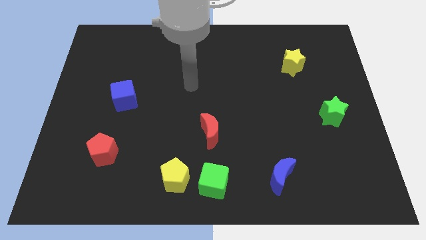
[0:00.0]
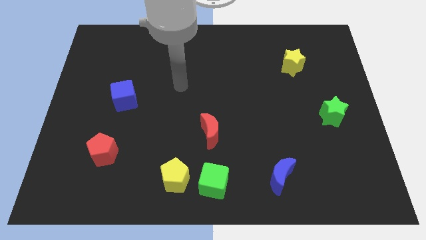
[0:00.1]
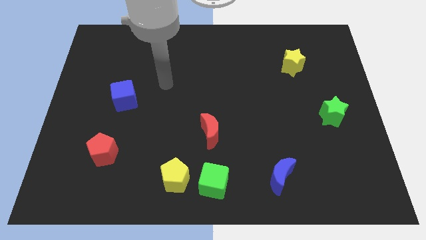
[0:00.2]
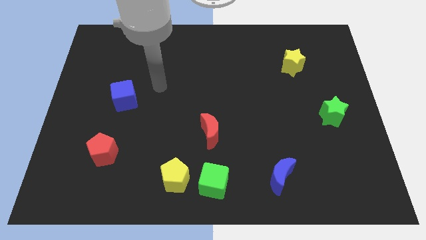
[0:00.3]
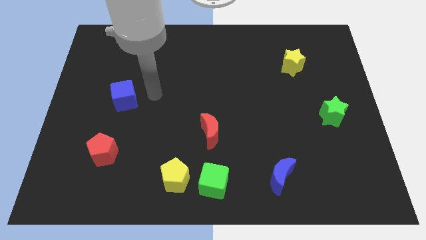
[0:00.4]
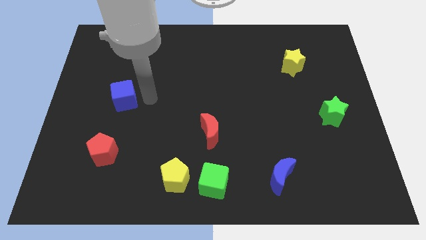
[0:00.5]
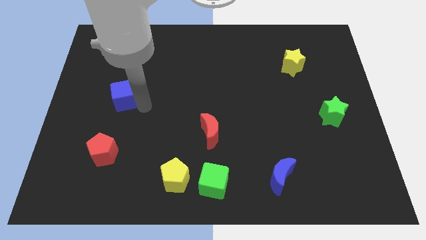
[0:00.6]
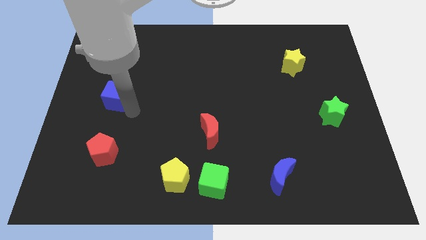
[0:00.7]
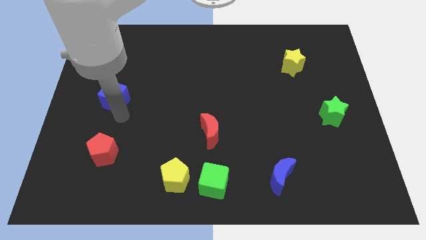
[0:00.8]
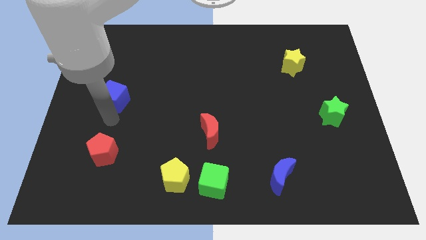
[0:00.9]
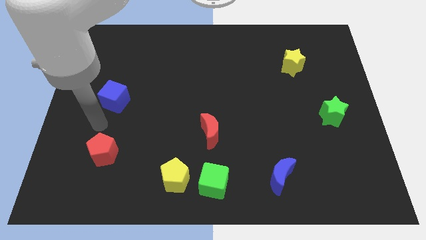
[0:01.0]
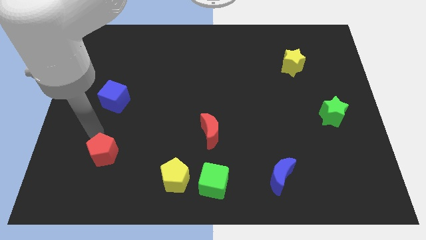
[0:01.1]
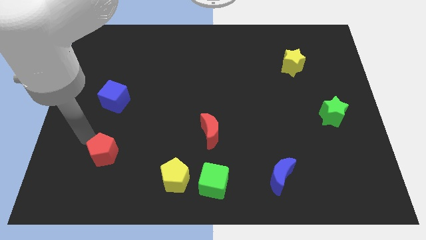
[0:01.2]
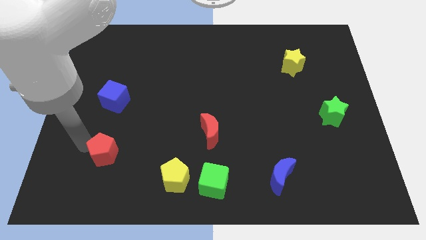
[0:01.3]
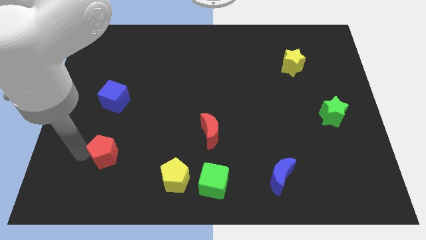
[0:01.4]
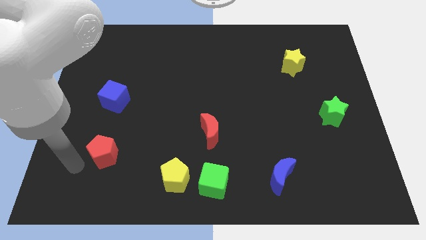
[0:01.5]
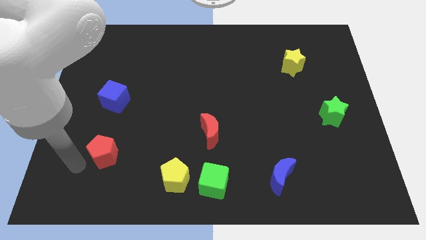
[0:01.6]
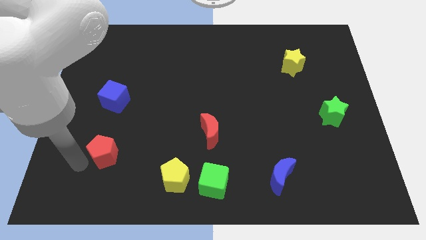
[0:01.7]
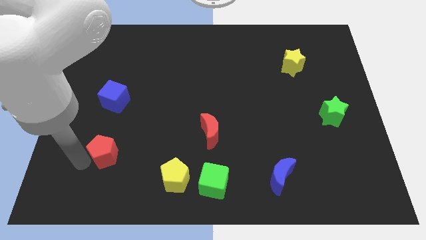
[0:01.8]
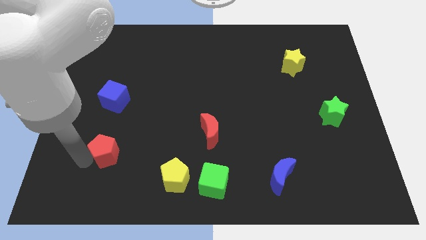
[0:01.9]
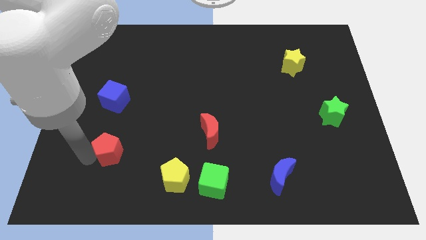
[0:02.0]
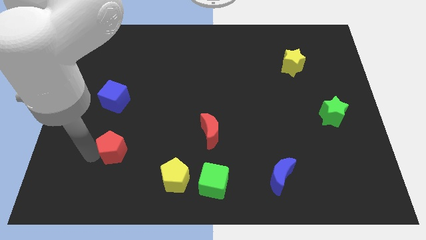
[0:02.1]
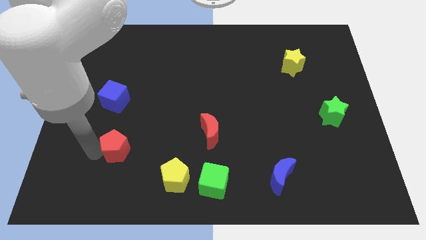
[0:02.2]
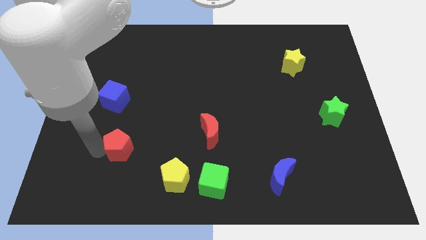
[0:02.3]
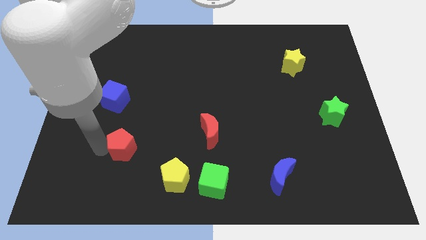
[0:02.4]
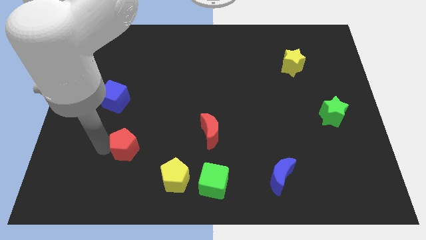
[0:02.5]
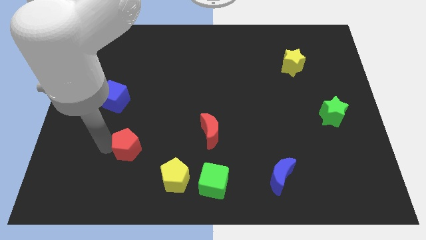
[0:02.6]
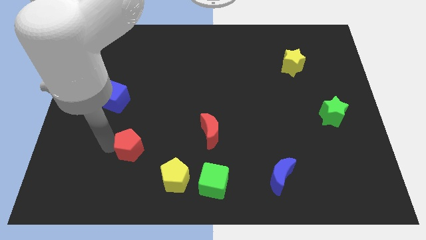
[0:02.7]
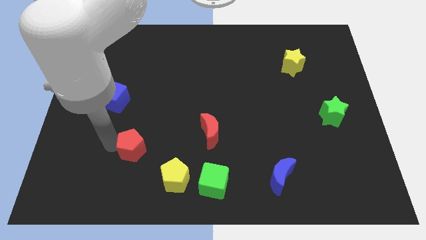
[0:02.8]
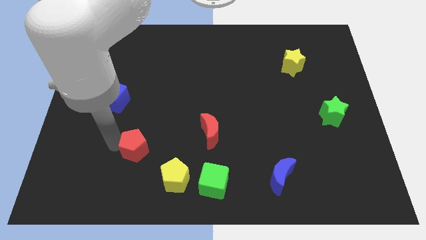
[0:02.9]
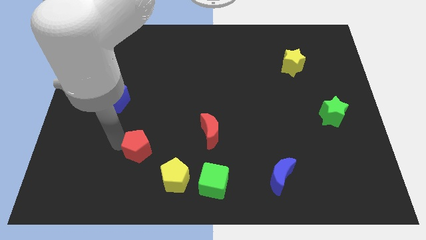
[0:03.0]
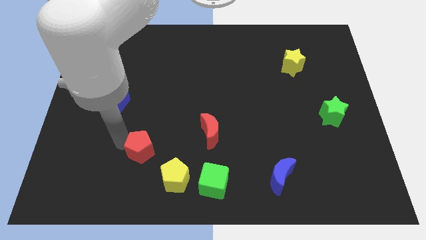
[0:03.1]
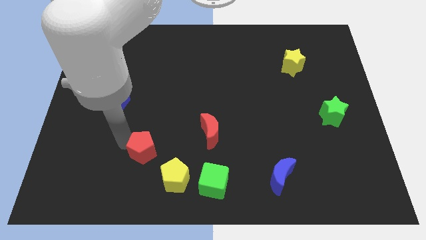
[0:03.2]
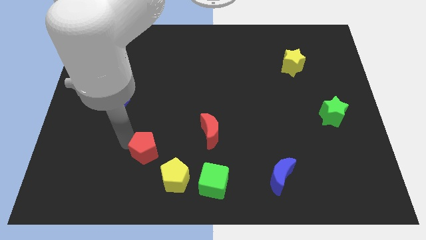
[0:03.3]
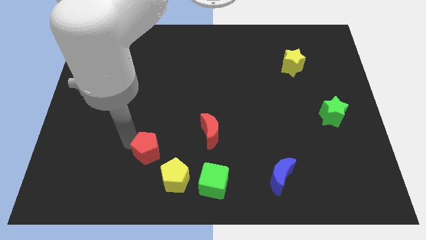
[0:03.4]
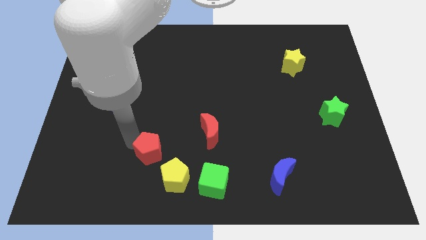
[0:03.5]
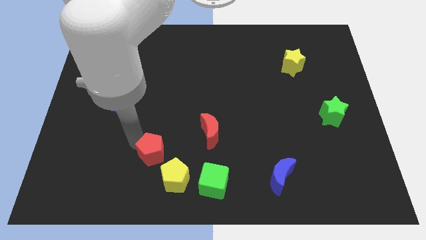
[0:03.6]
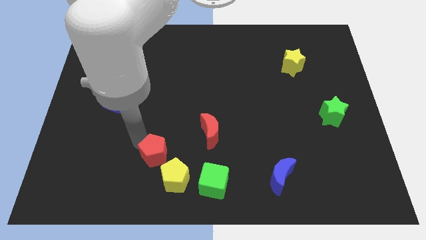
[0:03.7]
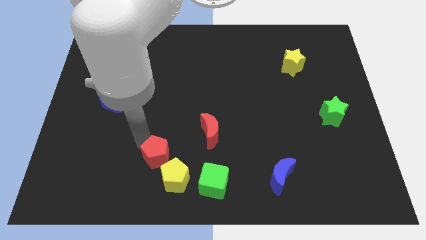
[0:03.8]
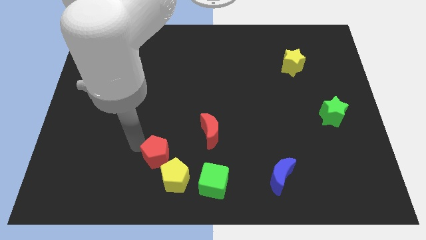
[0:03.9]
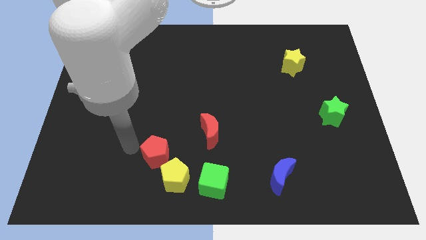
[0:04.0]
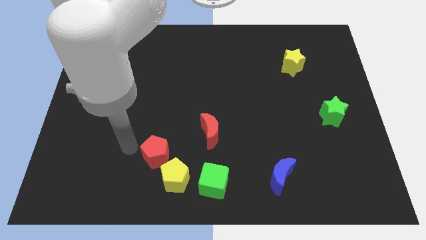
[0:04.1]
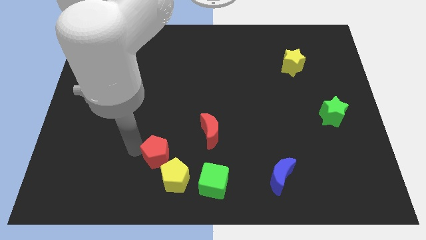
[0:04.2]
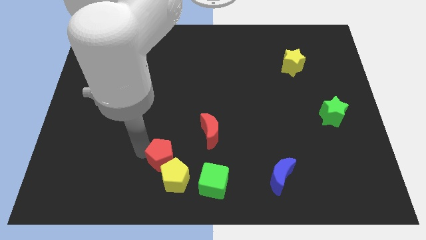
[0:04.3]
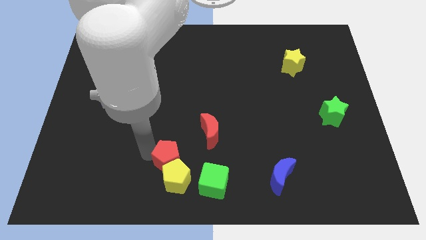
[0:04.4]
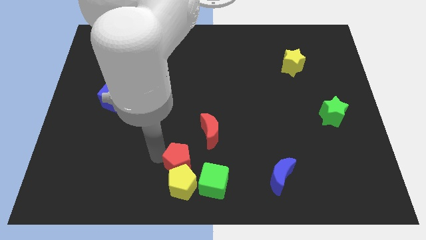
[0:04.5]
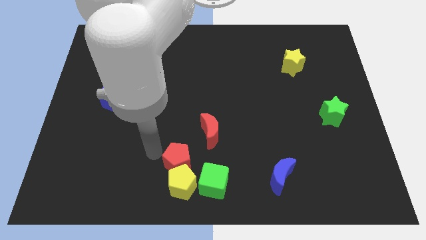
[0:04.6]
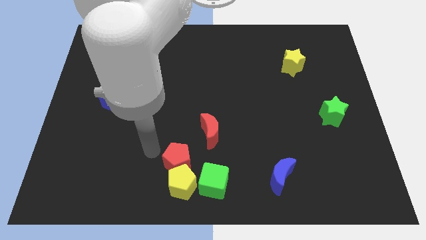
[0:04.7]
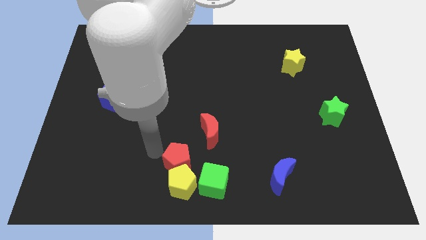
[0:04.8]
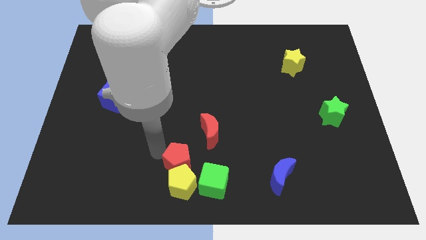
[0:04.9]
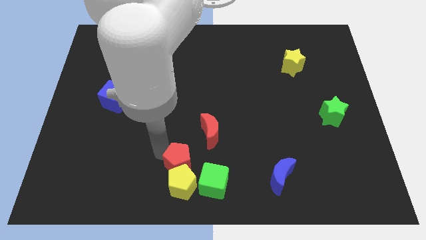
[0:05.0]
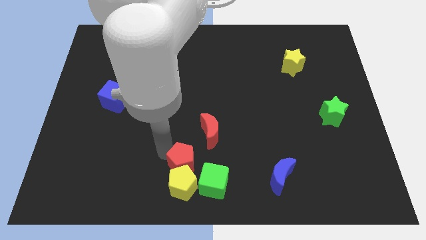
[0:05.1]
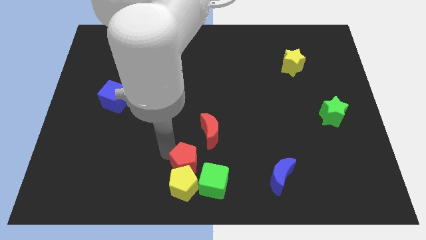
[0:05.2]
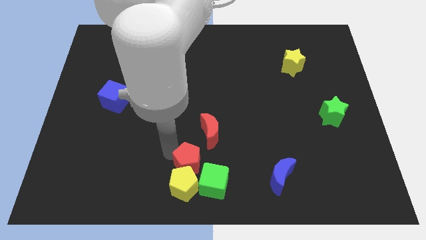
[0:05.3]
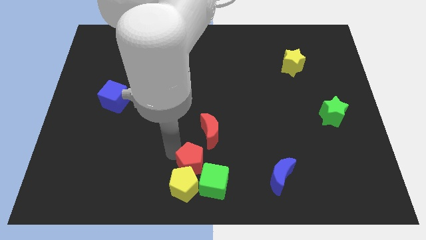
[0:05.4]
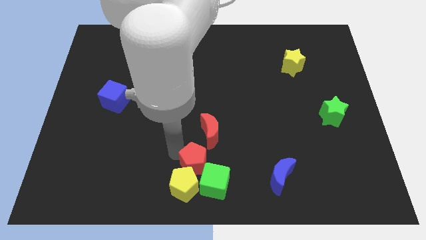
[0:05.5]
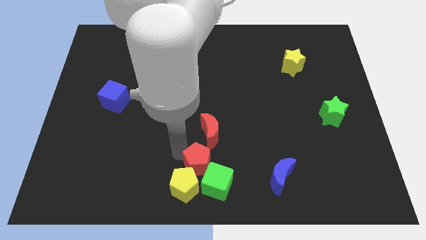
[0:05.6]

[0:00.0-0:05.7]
move the red pentagon towards the green cube

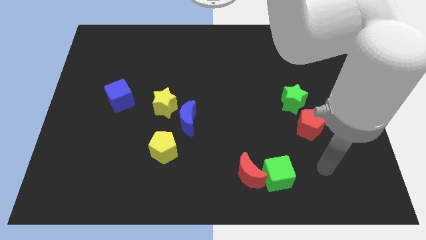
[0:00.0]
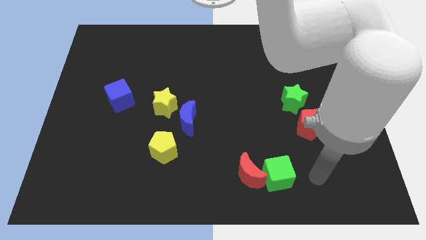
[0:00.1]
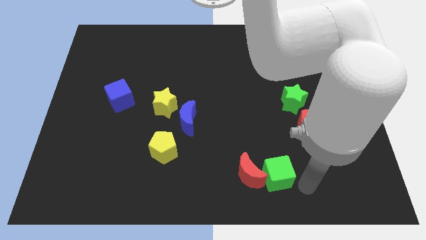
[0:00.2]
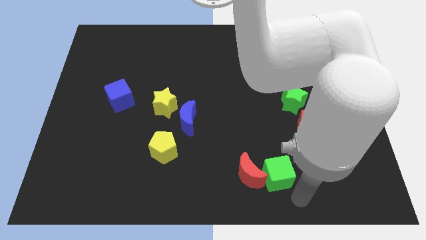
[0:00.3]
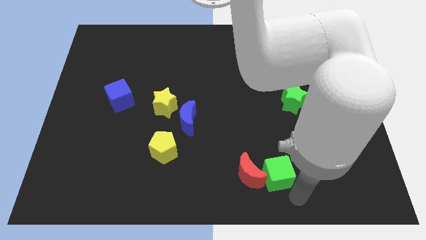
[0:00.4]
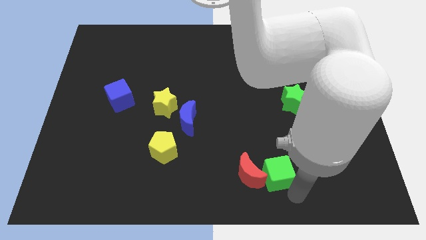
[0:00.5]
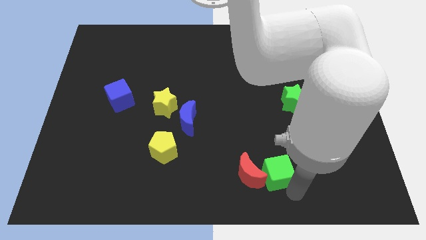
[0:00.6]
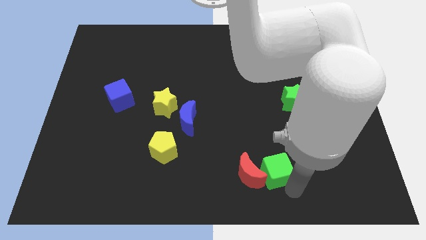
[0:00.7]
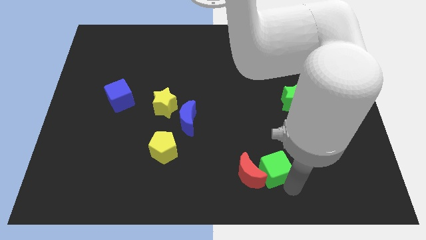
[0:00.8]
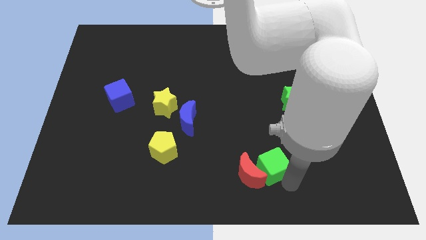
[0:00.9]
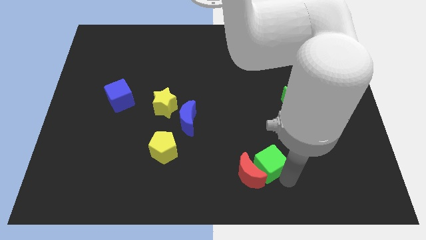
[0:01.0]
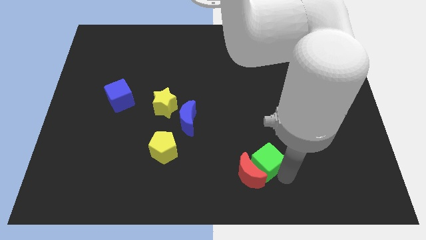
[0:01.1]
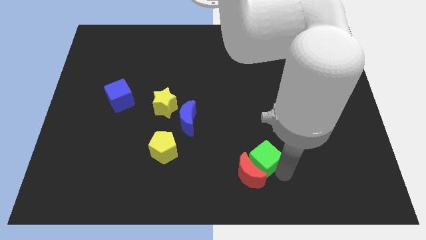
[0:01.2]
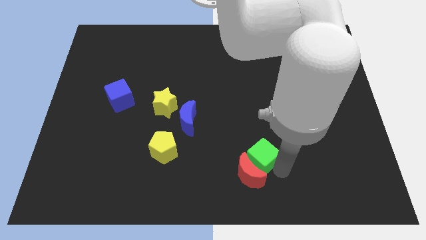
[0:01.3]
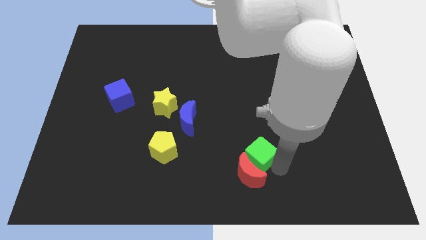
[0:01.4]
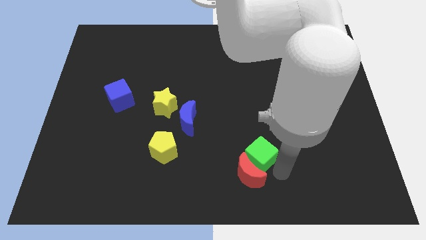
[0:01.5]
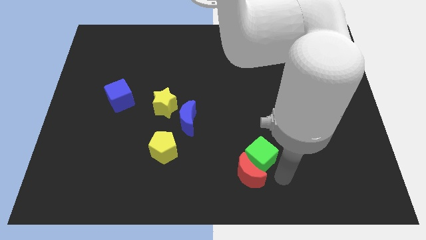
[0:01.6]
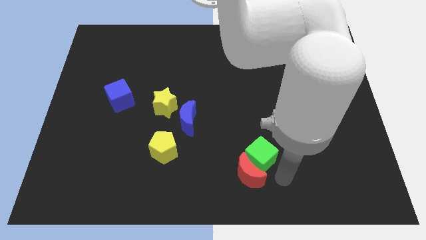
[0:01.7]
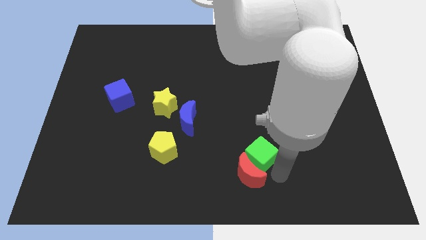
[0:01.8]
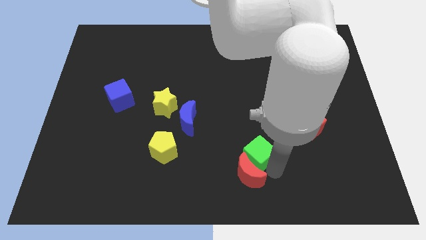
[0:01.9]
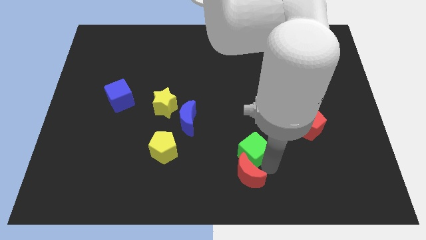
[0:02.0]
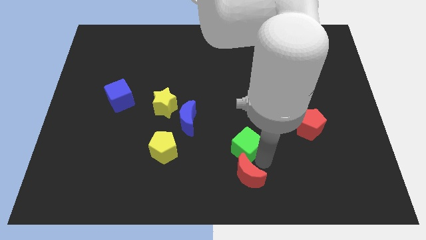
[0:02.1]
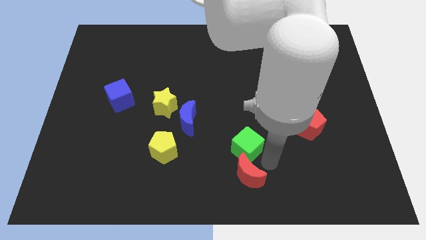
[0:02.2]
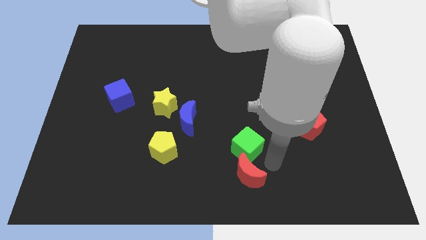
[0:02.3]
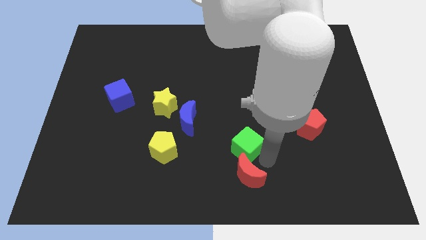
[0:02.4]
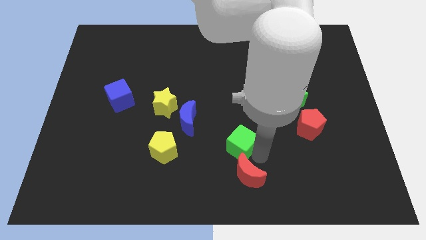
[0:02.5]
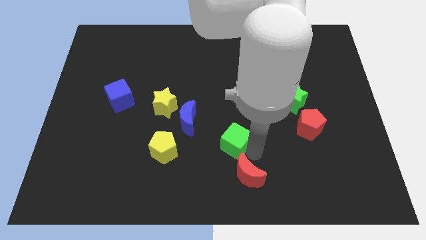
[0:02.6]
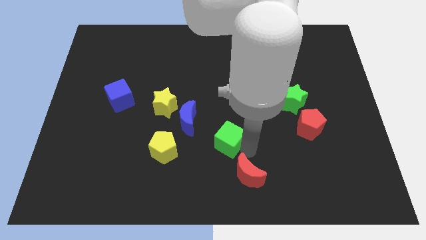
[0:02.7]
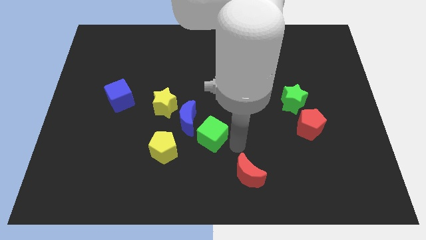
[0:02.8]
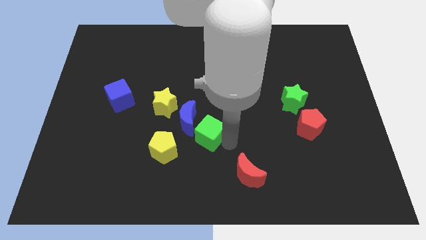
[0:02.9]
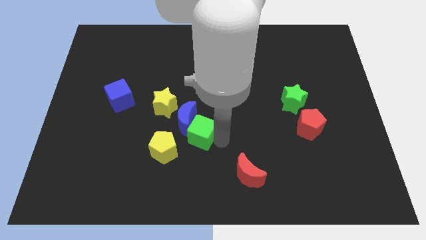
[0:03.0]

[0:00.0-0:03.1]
push the green cube next to the blue moon
